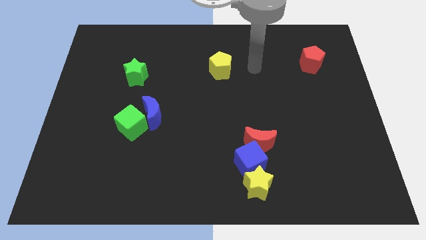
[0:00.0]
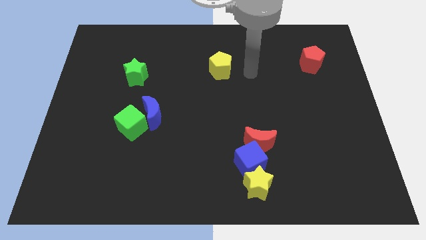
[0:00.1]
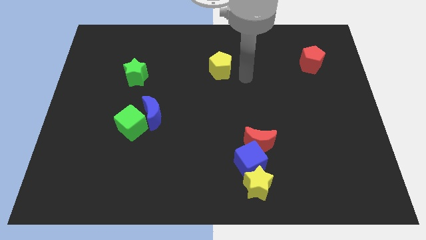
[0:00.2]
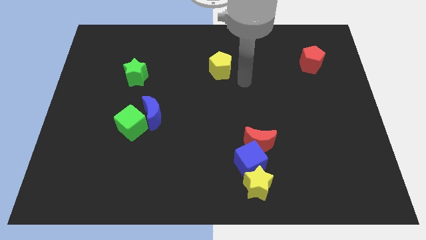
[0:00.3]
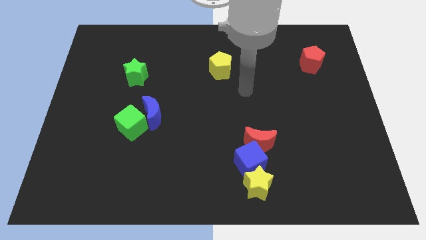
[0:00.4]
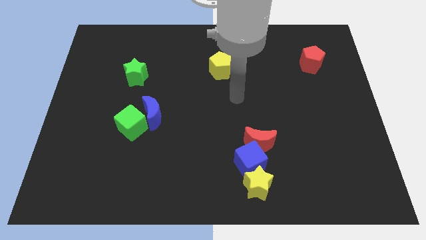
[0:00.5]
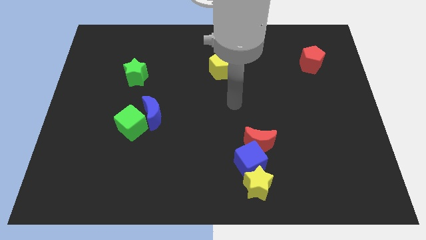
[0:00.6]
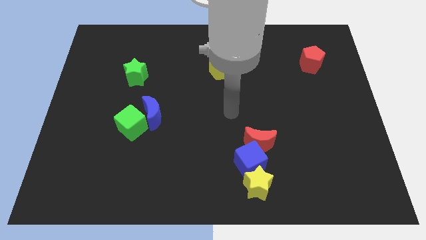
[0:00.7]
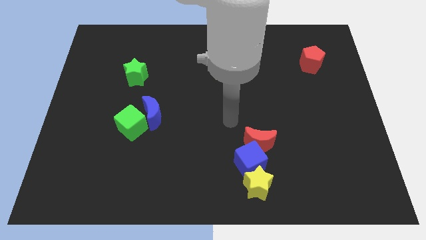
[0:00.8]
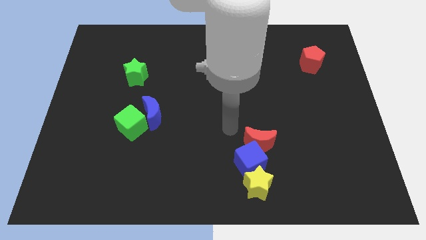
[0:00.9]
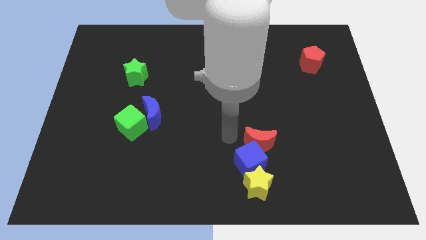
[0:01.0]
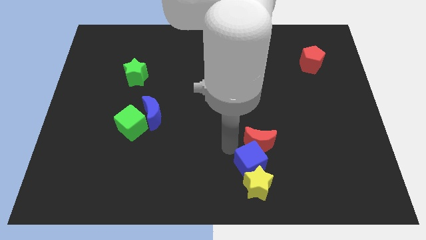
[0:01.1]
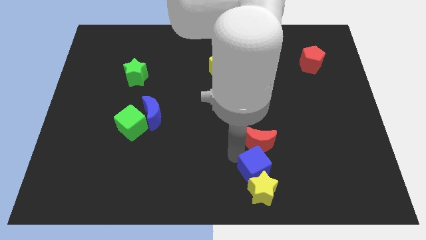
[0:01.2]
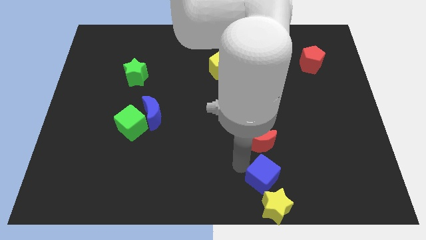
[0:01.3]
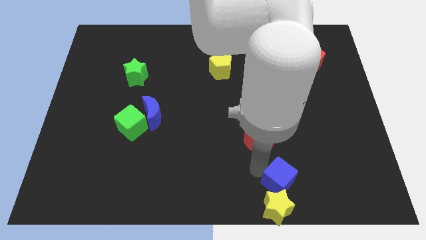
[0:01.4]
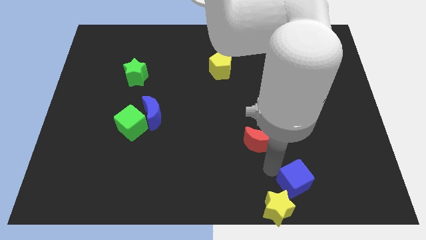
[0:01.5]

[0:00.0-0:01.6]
separate the red moon from the blue cube

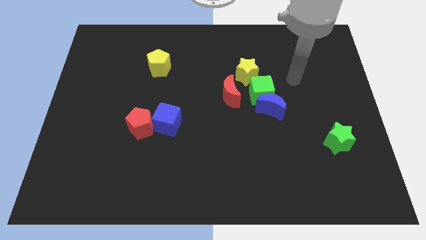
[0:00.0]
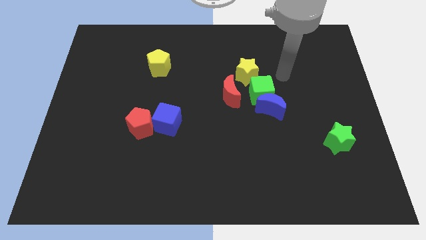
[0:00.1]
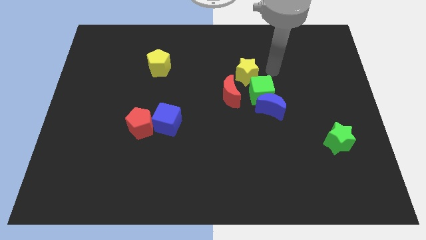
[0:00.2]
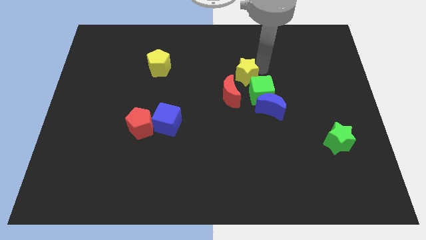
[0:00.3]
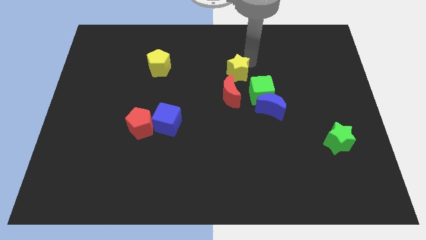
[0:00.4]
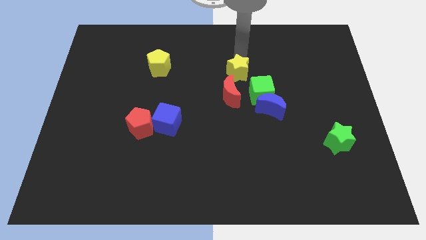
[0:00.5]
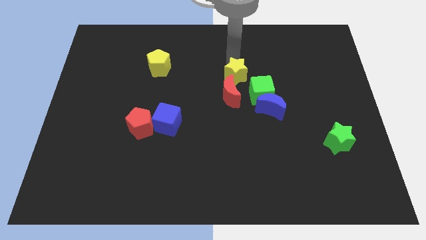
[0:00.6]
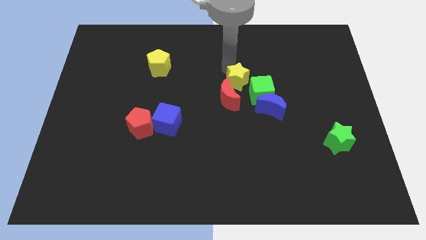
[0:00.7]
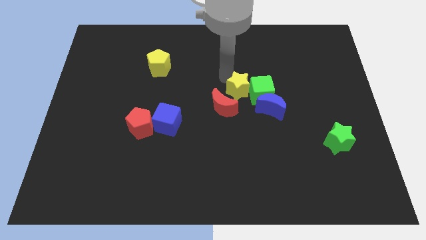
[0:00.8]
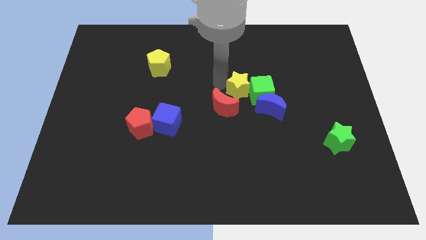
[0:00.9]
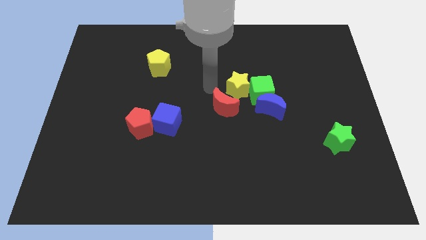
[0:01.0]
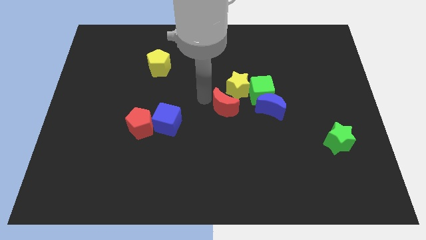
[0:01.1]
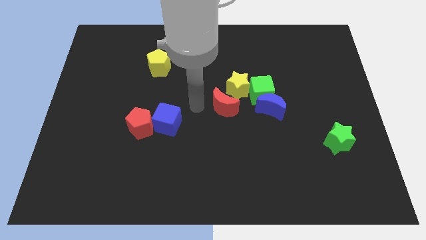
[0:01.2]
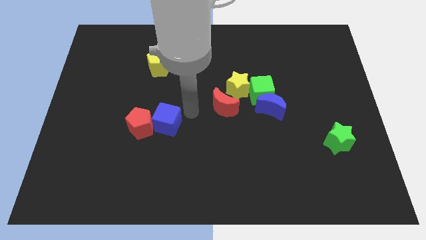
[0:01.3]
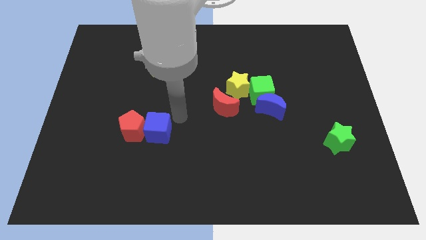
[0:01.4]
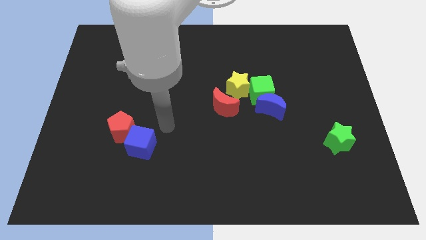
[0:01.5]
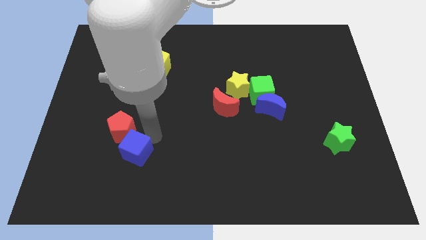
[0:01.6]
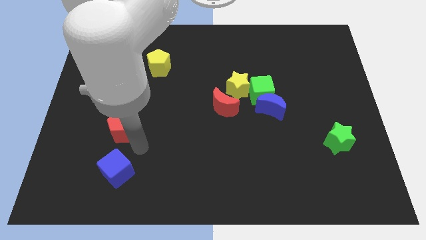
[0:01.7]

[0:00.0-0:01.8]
move the red pentagon away from the blue cube

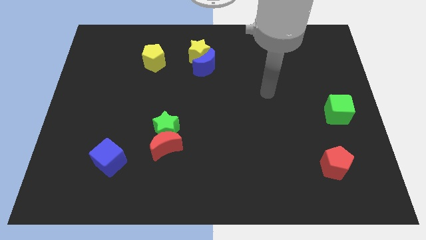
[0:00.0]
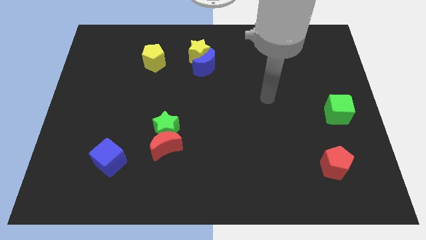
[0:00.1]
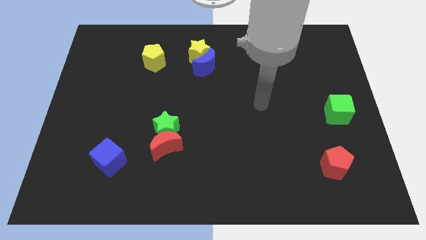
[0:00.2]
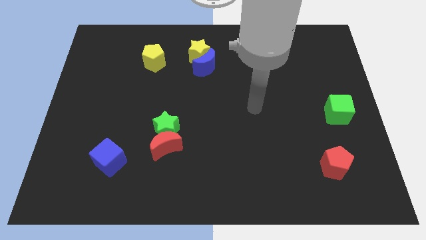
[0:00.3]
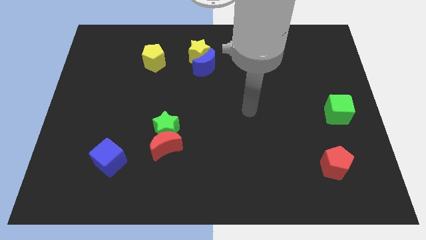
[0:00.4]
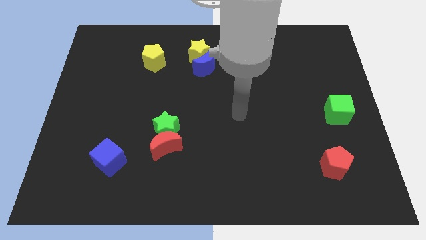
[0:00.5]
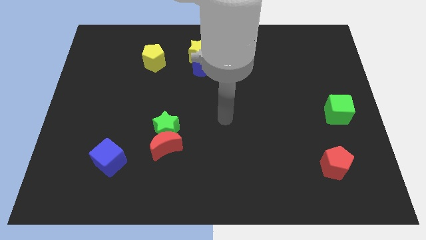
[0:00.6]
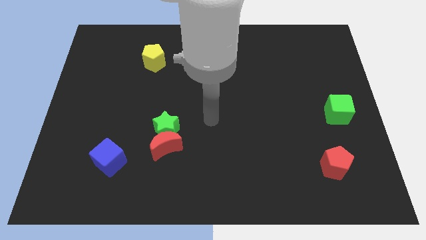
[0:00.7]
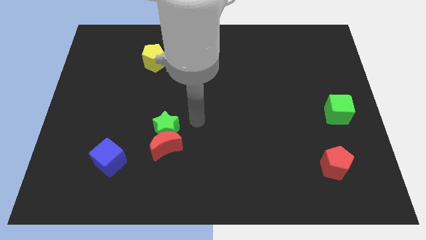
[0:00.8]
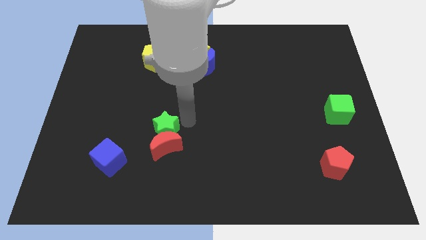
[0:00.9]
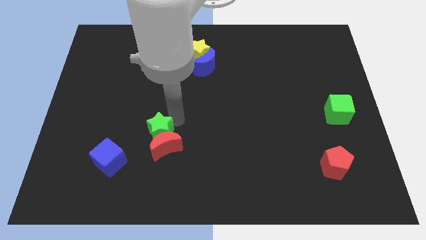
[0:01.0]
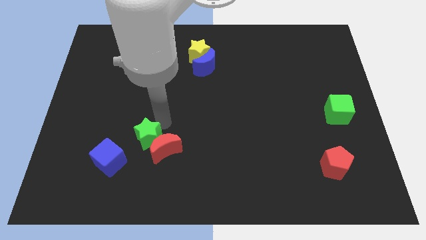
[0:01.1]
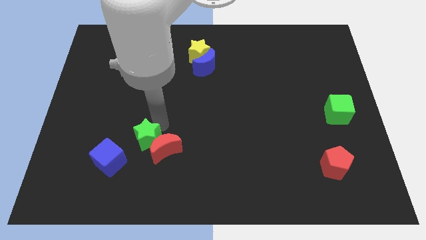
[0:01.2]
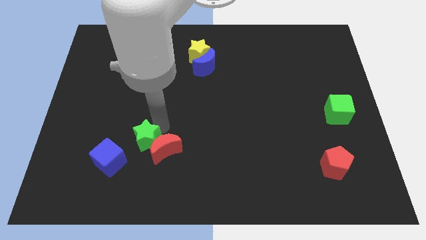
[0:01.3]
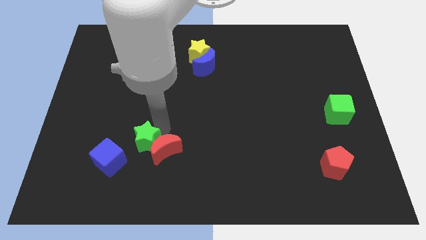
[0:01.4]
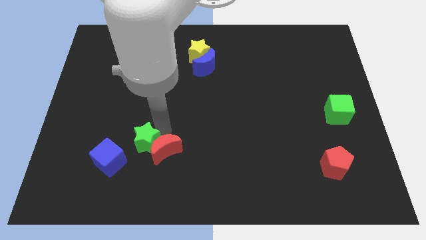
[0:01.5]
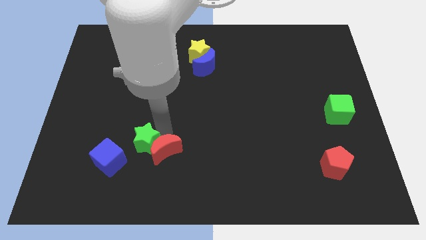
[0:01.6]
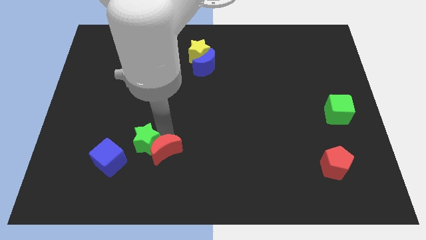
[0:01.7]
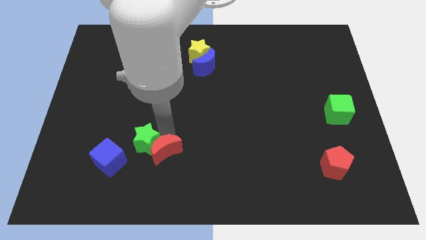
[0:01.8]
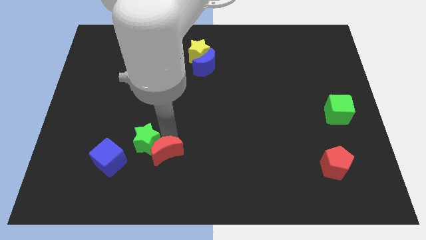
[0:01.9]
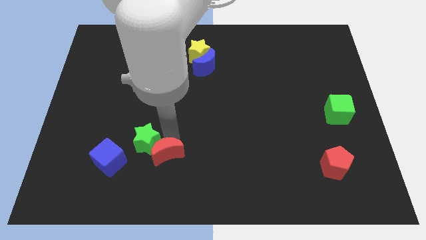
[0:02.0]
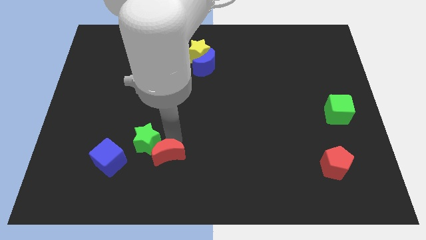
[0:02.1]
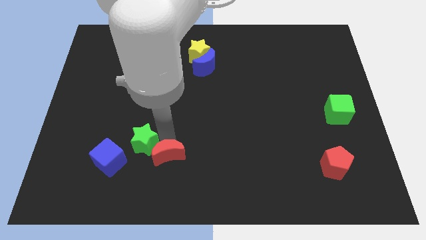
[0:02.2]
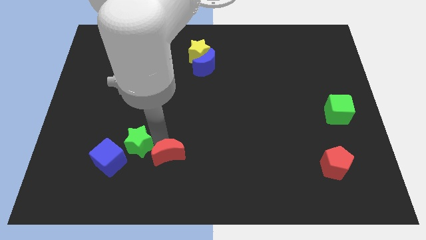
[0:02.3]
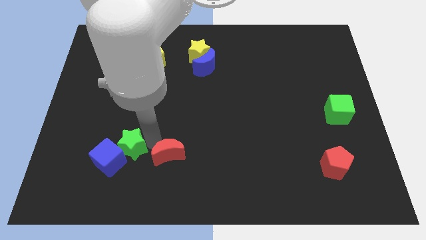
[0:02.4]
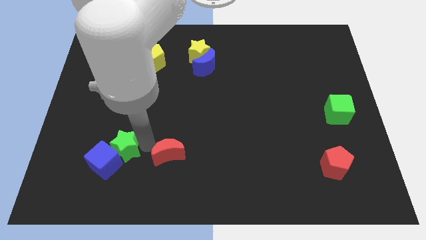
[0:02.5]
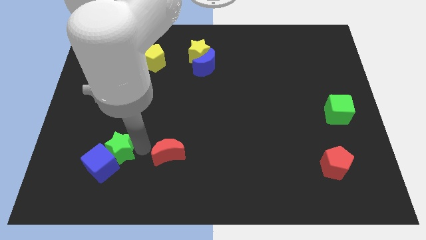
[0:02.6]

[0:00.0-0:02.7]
separate the red moon from the green star

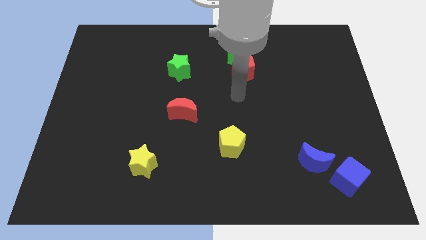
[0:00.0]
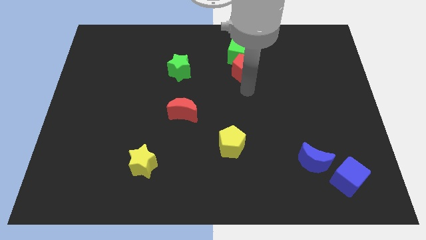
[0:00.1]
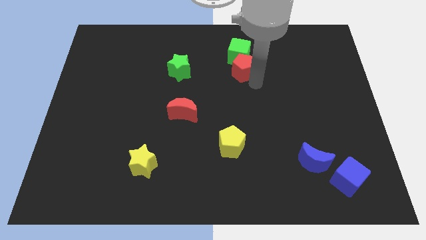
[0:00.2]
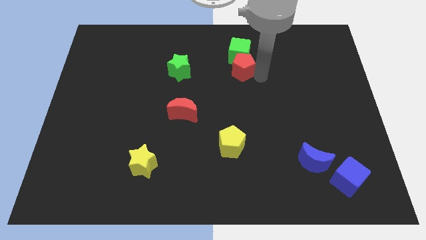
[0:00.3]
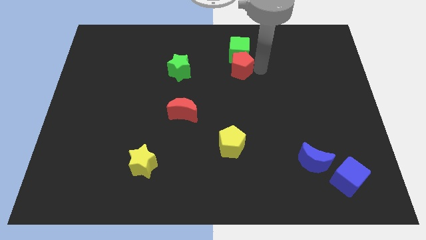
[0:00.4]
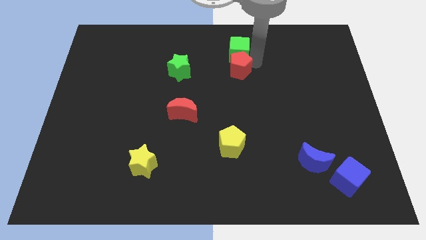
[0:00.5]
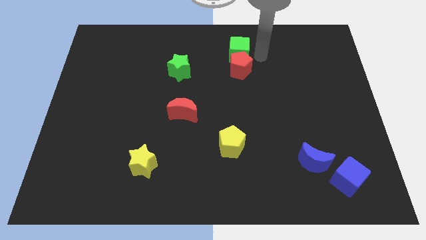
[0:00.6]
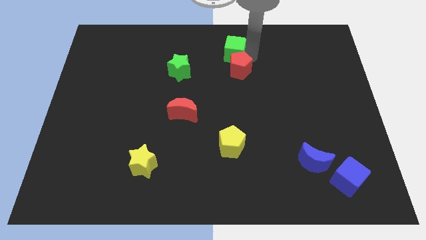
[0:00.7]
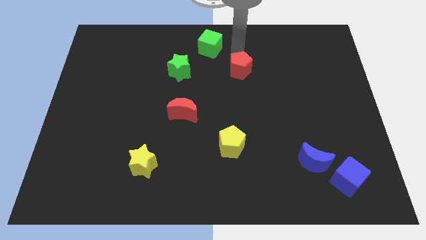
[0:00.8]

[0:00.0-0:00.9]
separate the red pentagon from the green cube

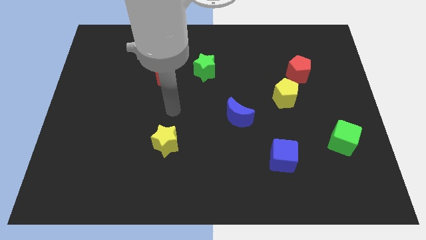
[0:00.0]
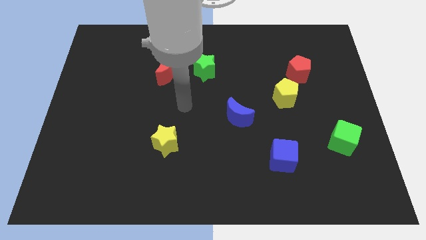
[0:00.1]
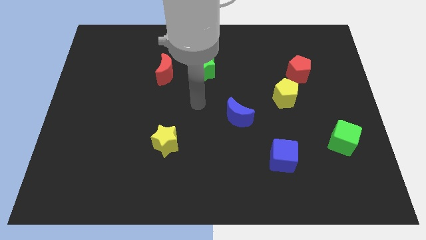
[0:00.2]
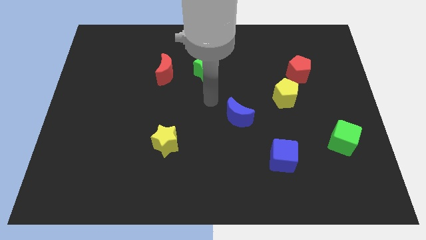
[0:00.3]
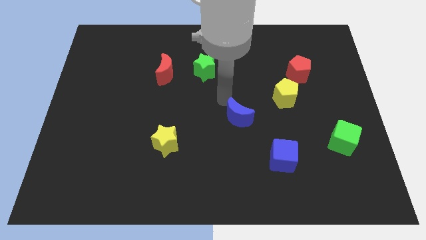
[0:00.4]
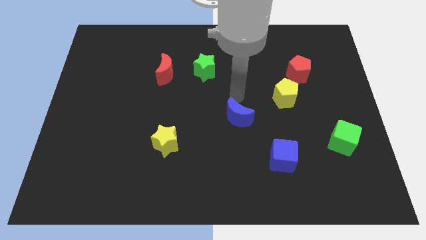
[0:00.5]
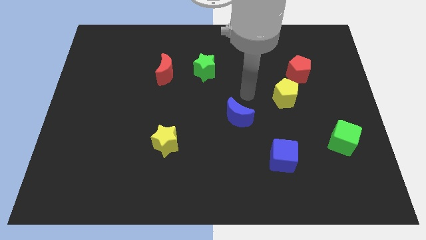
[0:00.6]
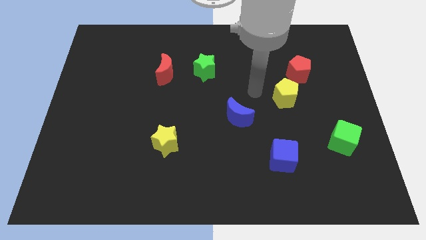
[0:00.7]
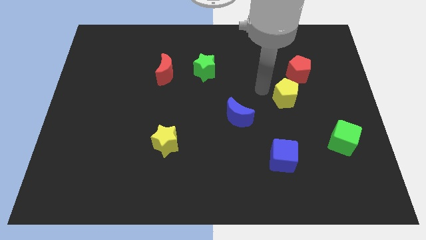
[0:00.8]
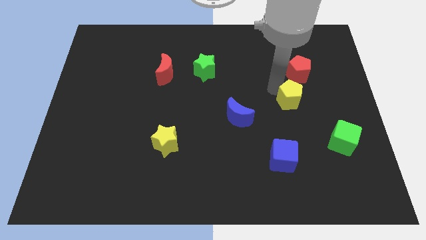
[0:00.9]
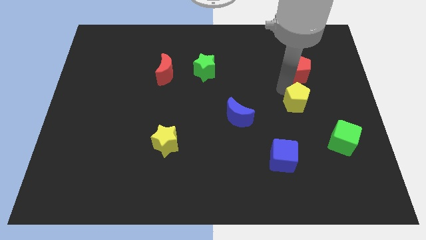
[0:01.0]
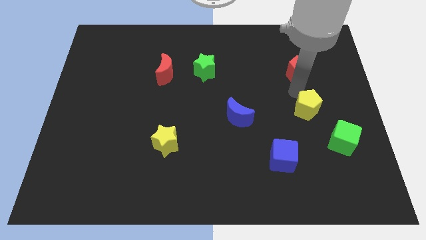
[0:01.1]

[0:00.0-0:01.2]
pull the red pentagon apart from the yellow pentagon

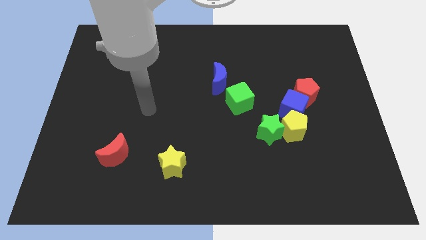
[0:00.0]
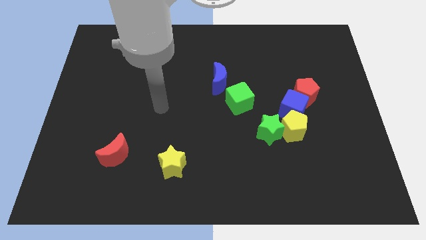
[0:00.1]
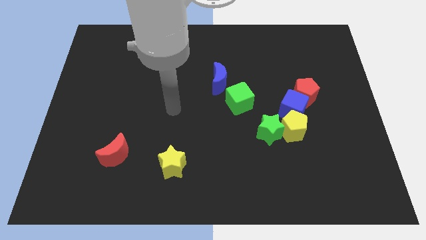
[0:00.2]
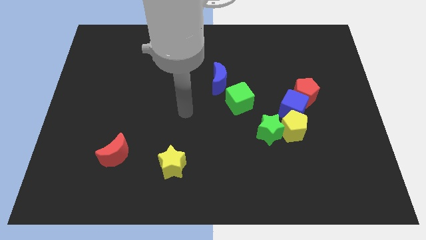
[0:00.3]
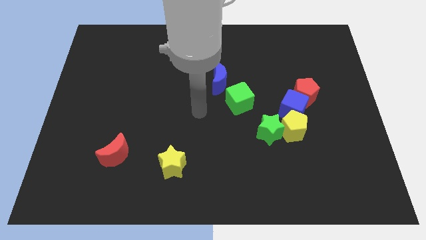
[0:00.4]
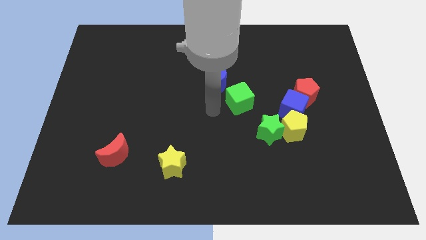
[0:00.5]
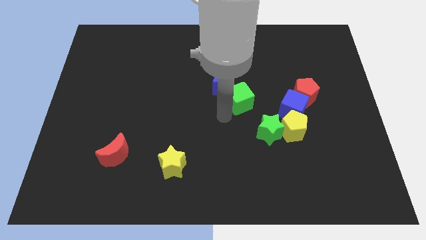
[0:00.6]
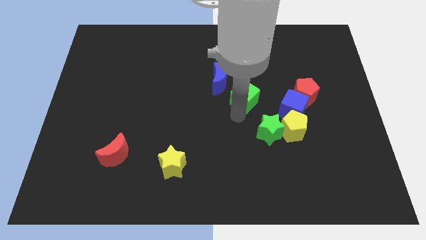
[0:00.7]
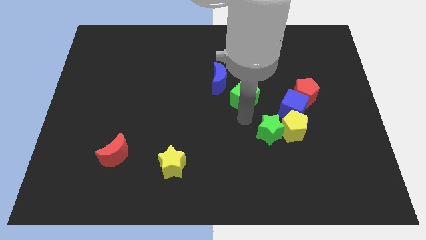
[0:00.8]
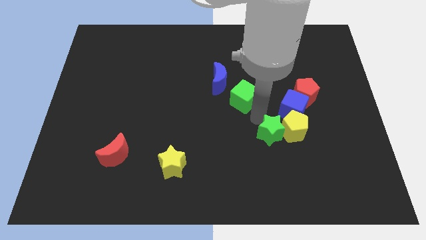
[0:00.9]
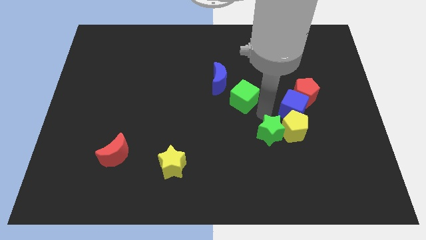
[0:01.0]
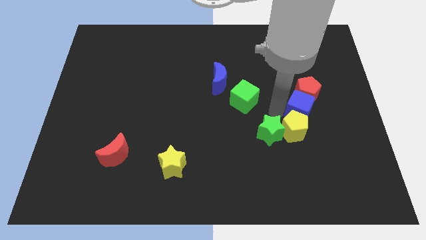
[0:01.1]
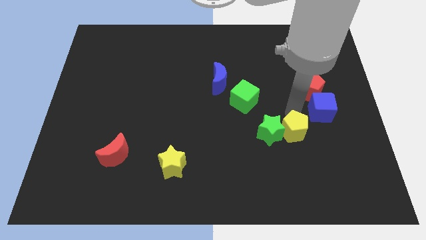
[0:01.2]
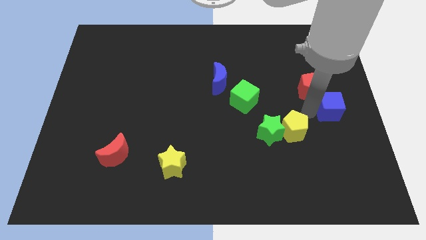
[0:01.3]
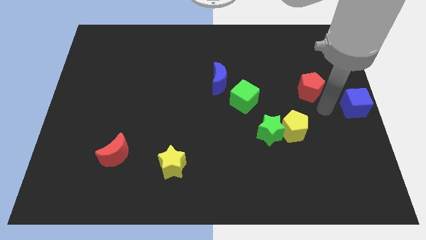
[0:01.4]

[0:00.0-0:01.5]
pull the red pentagon apart from the blue cube
